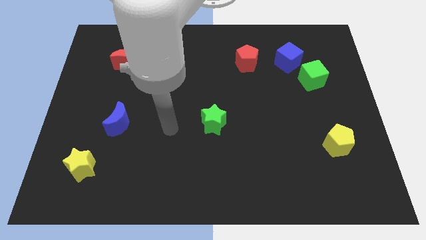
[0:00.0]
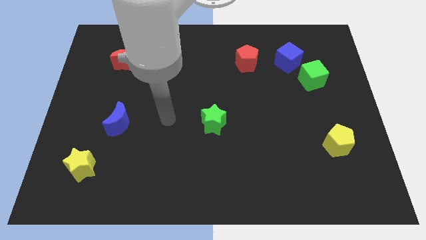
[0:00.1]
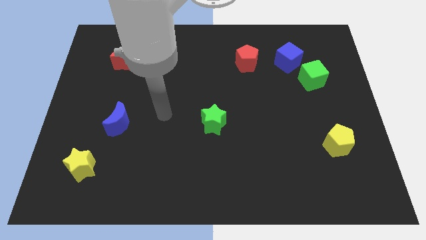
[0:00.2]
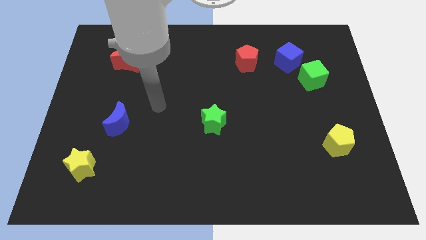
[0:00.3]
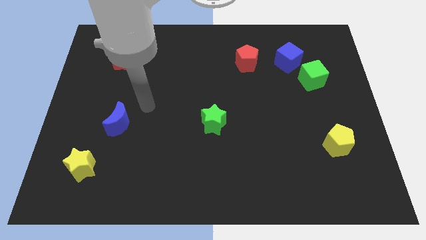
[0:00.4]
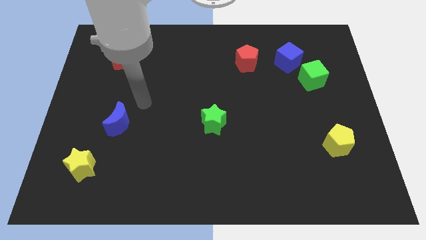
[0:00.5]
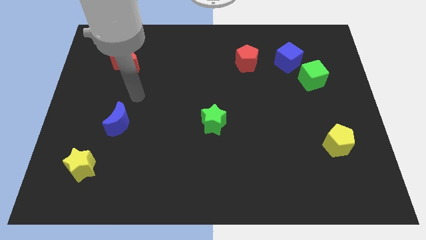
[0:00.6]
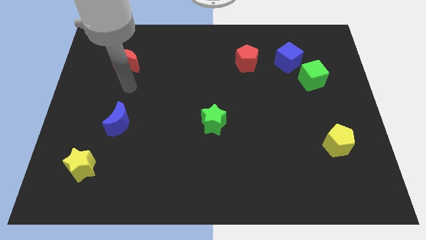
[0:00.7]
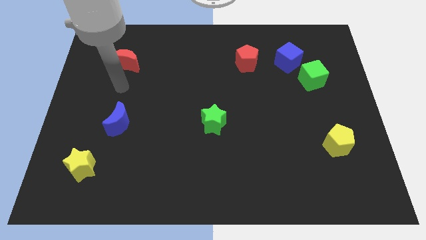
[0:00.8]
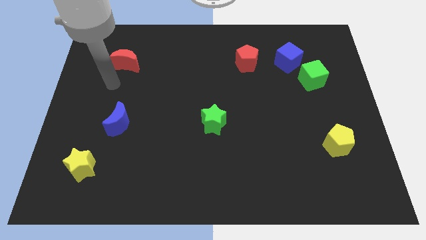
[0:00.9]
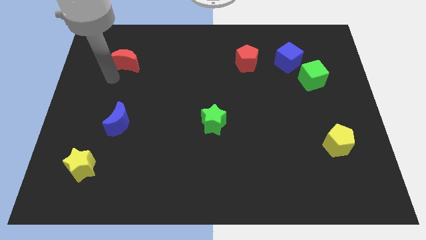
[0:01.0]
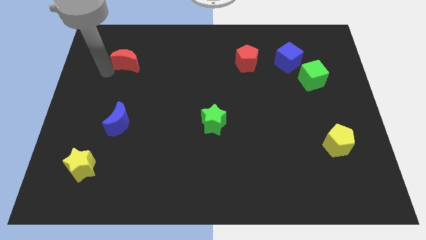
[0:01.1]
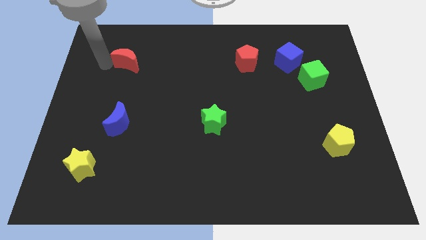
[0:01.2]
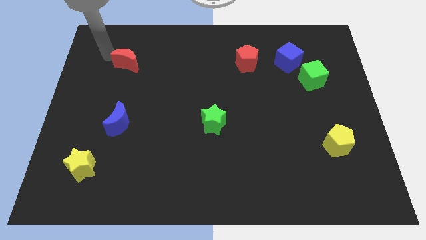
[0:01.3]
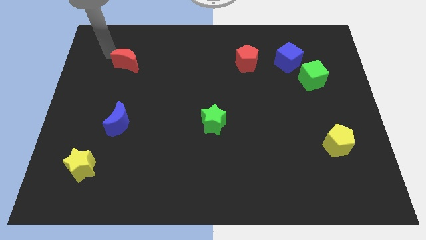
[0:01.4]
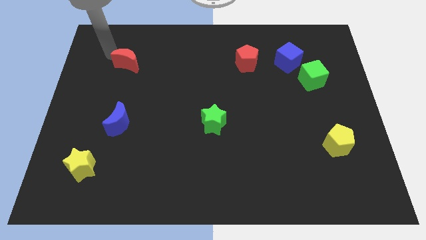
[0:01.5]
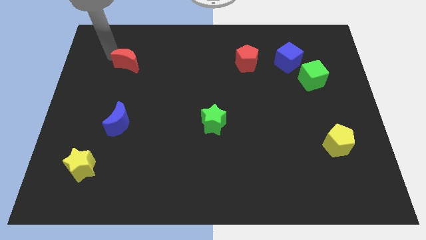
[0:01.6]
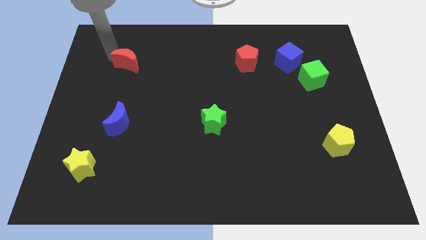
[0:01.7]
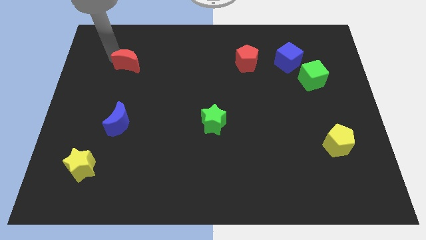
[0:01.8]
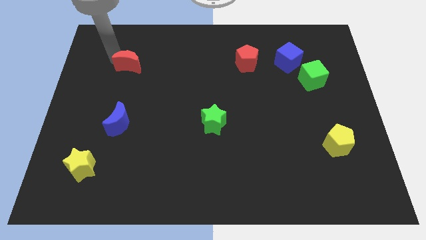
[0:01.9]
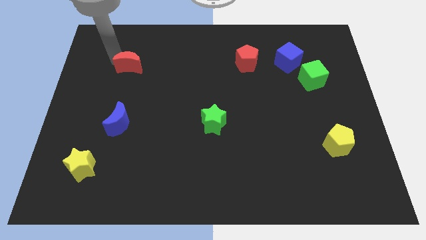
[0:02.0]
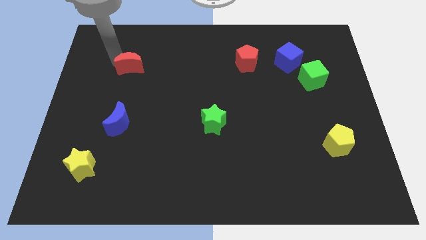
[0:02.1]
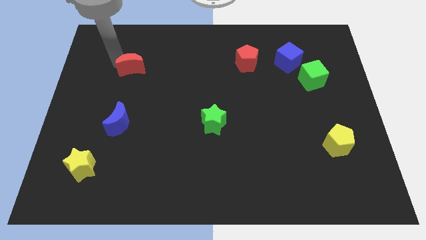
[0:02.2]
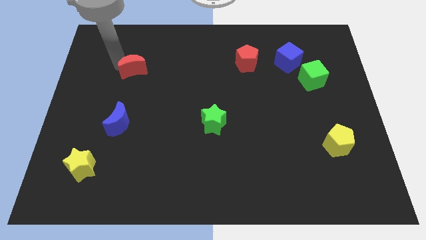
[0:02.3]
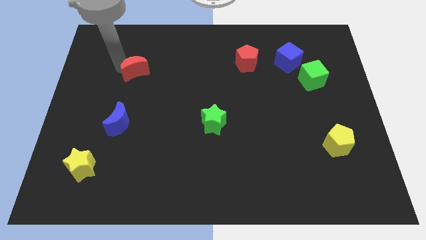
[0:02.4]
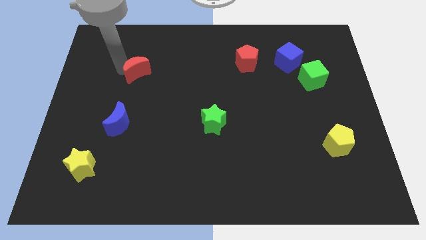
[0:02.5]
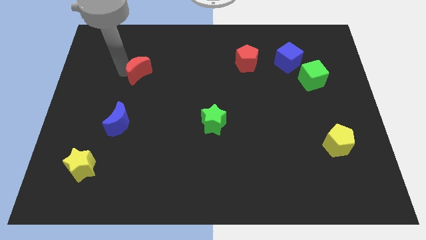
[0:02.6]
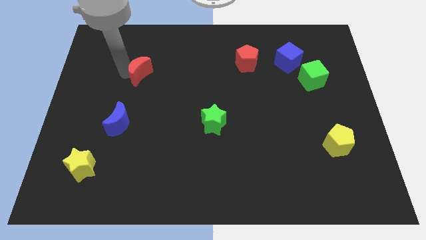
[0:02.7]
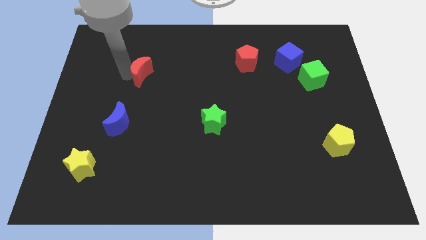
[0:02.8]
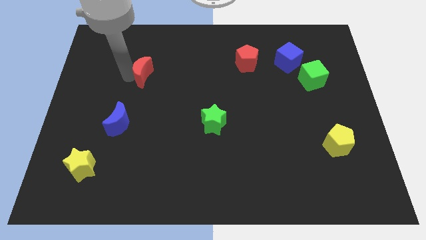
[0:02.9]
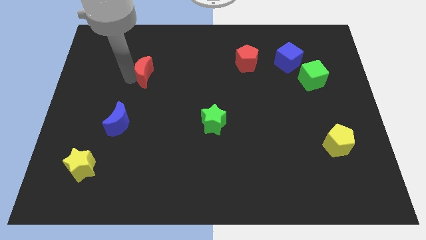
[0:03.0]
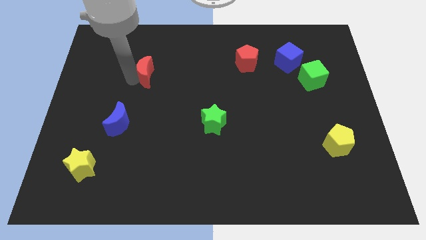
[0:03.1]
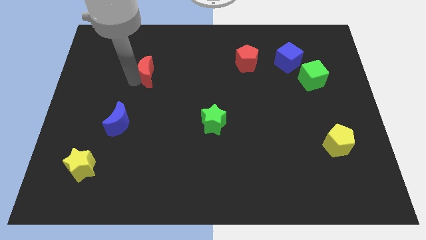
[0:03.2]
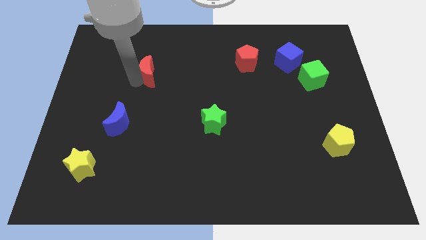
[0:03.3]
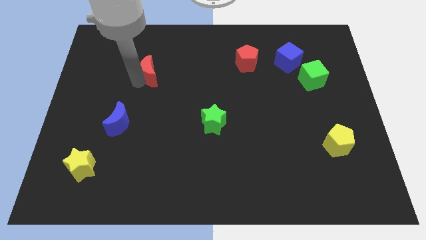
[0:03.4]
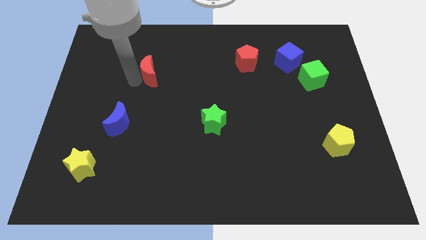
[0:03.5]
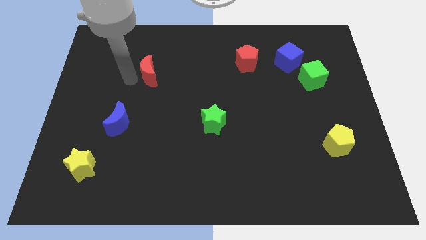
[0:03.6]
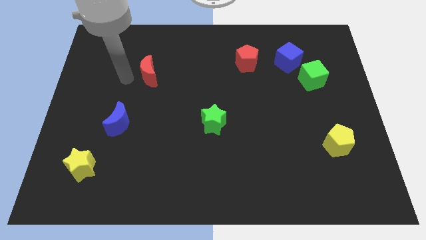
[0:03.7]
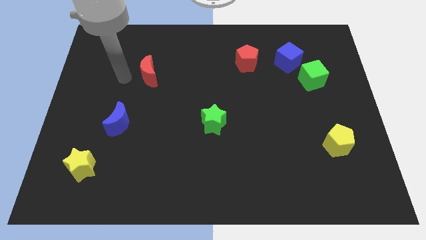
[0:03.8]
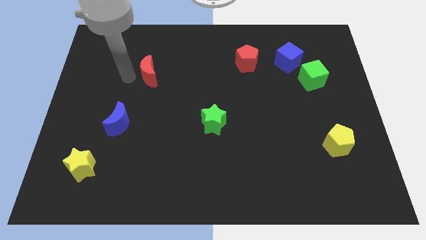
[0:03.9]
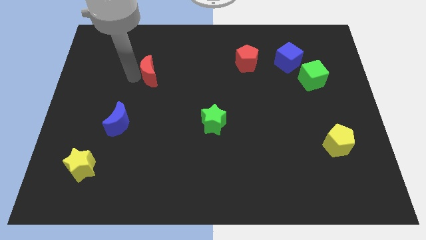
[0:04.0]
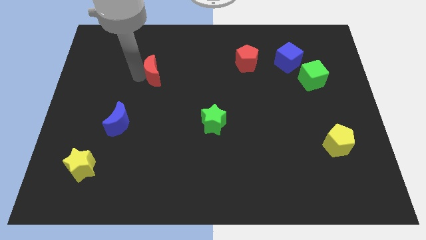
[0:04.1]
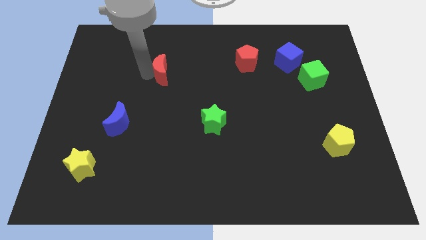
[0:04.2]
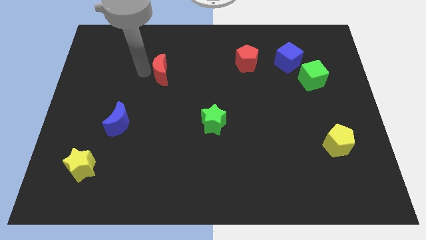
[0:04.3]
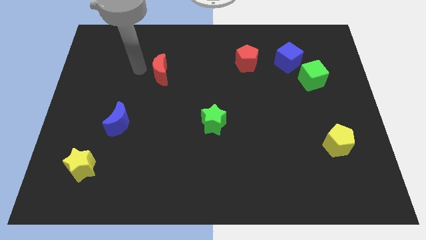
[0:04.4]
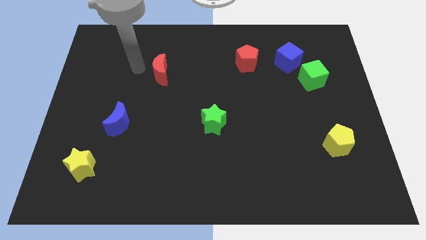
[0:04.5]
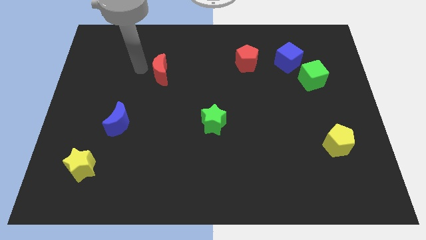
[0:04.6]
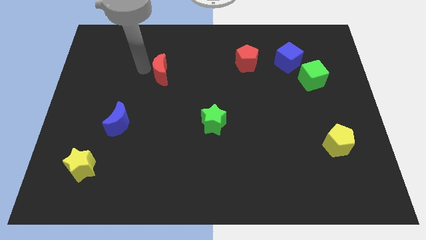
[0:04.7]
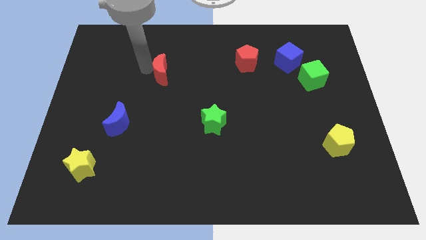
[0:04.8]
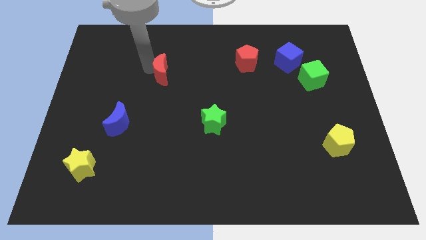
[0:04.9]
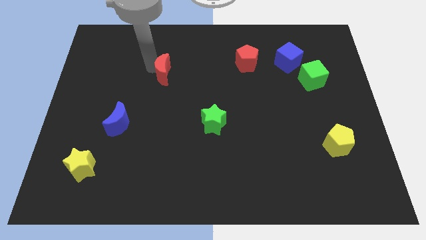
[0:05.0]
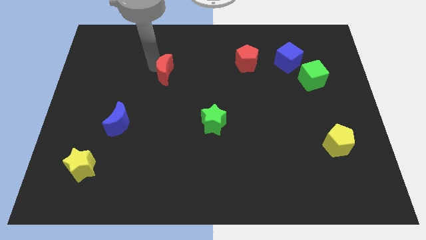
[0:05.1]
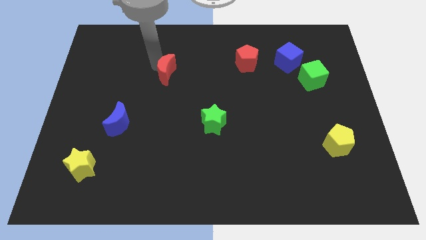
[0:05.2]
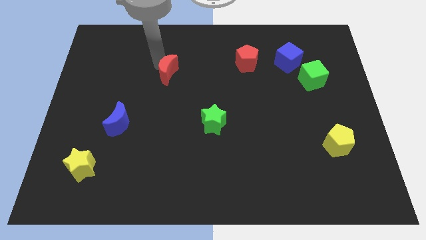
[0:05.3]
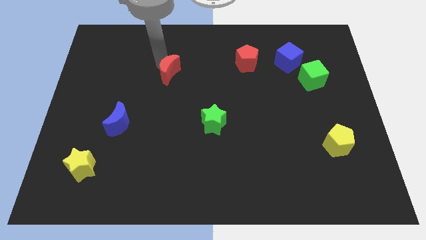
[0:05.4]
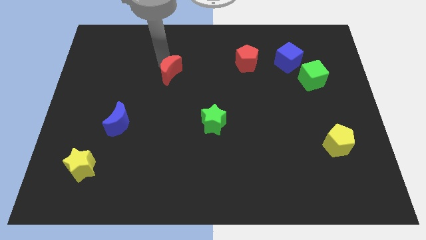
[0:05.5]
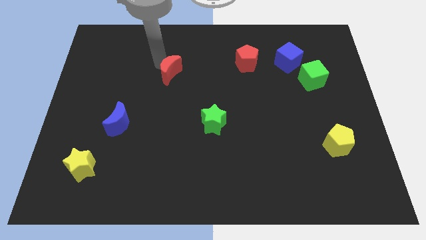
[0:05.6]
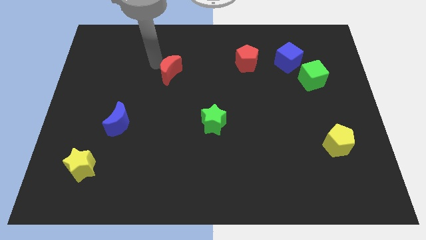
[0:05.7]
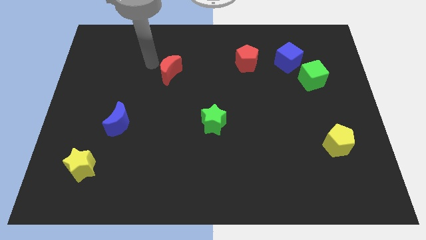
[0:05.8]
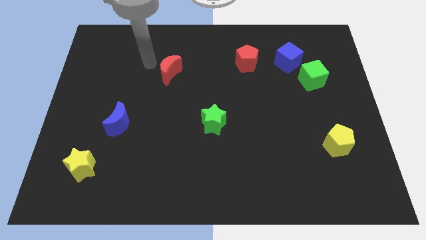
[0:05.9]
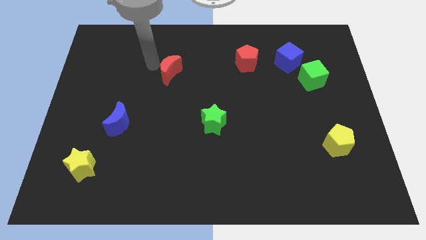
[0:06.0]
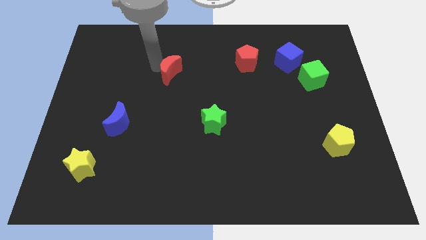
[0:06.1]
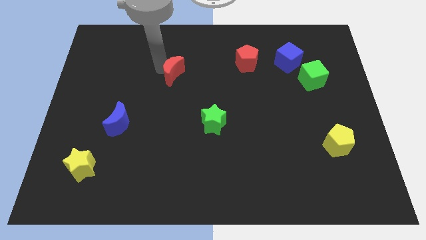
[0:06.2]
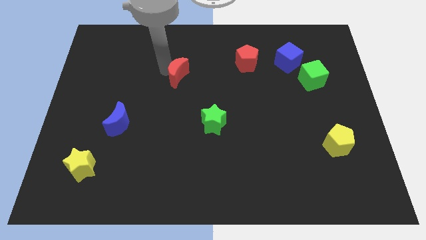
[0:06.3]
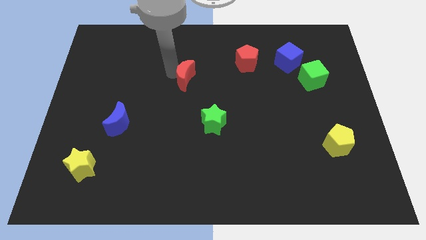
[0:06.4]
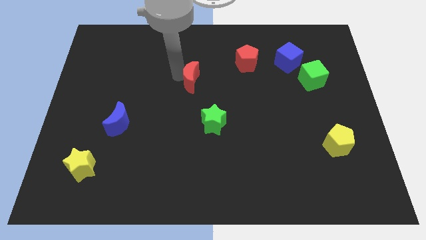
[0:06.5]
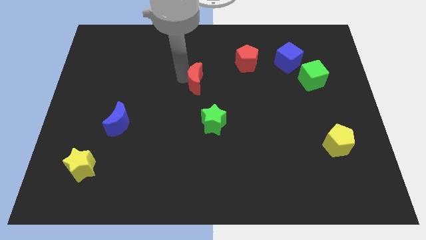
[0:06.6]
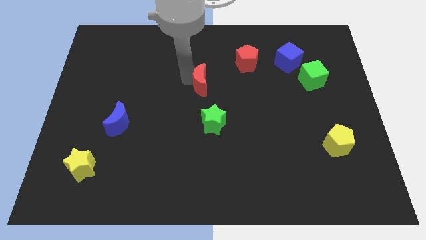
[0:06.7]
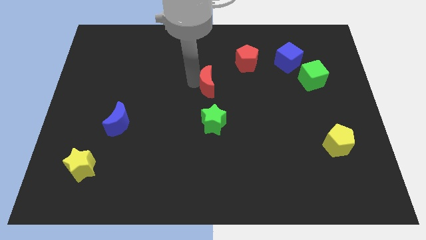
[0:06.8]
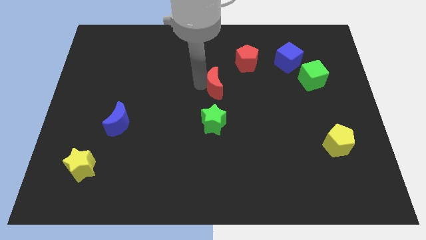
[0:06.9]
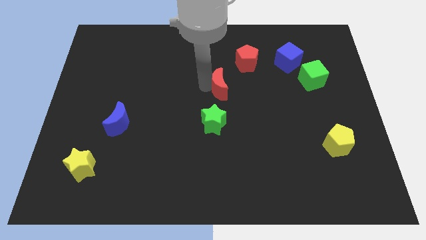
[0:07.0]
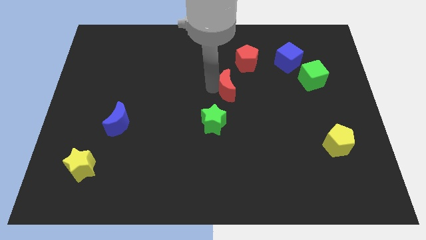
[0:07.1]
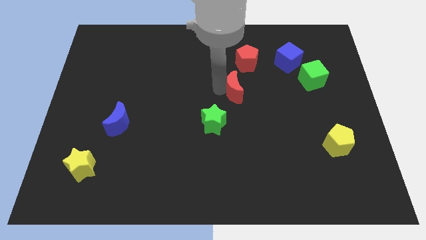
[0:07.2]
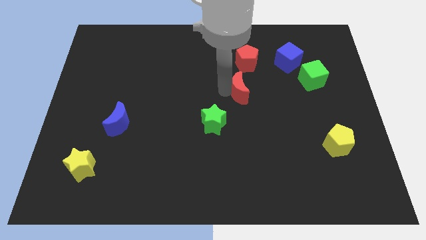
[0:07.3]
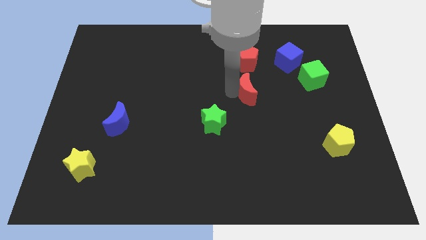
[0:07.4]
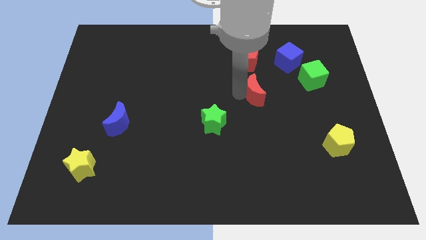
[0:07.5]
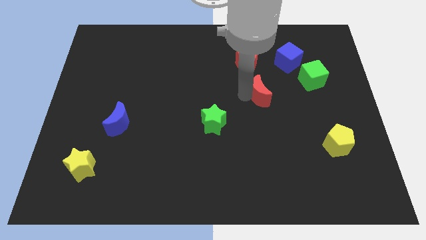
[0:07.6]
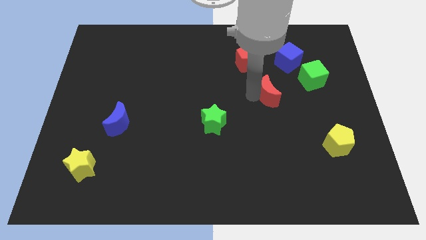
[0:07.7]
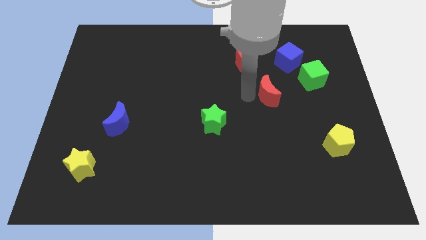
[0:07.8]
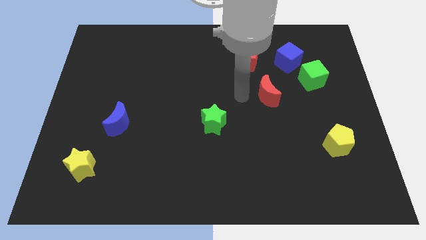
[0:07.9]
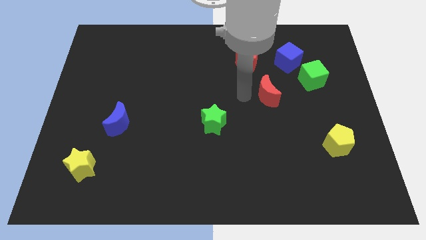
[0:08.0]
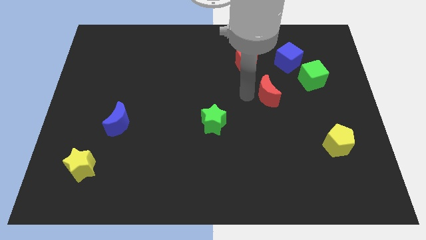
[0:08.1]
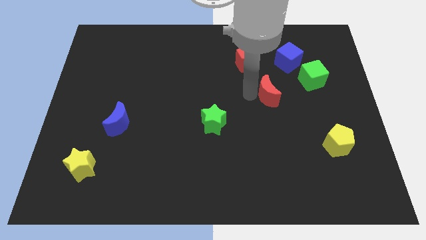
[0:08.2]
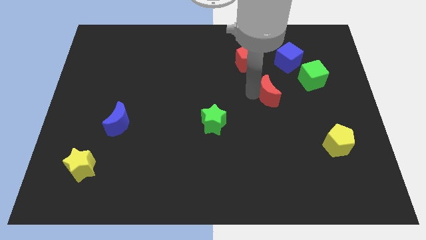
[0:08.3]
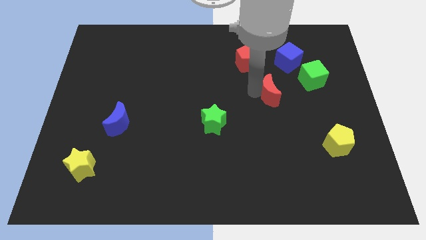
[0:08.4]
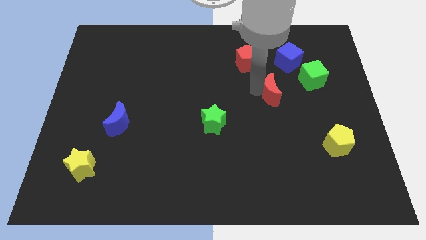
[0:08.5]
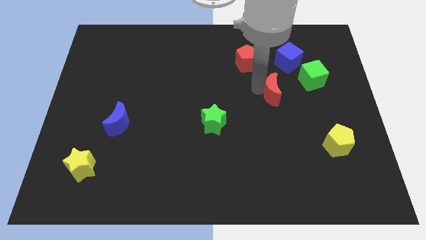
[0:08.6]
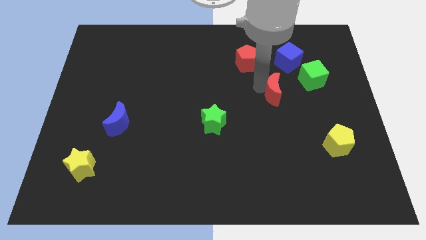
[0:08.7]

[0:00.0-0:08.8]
slide the red moon to the bottom left side of the green cube
